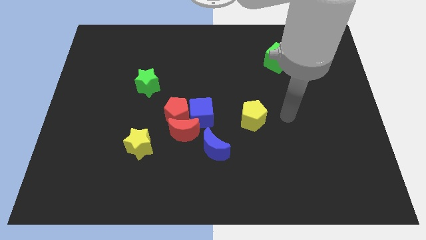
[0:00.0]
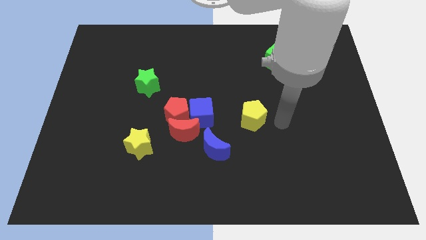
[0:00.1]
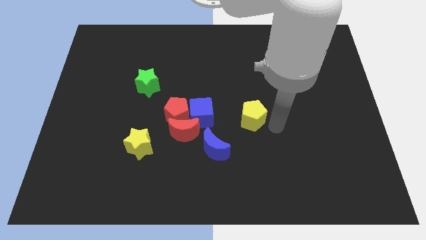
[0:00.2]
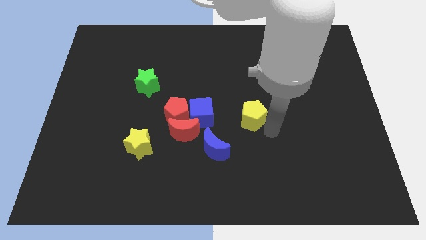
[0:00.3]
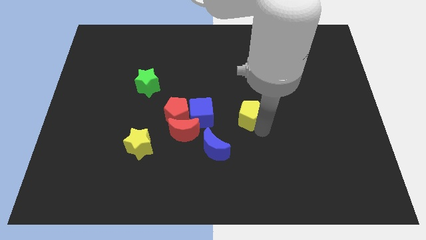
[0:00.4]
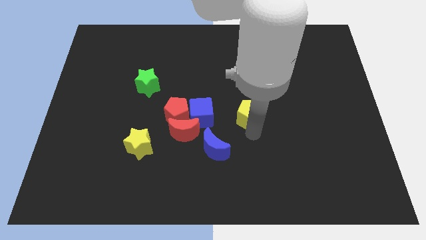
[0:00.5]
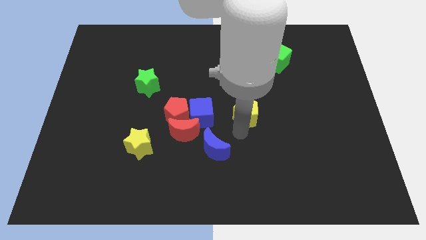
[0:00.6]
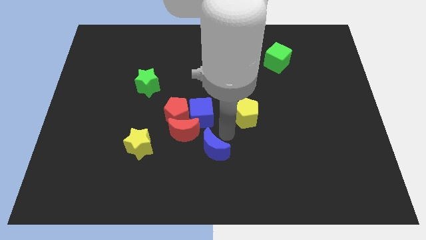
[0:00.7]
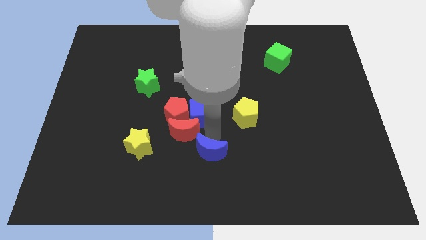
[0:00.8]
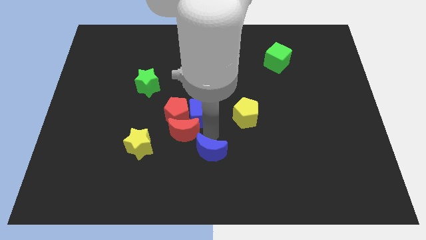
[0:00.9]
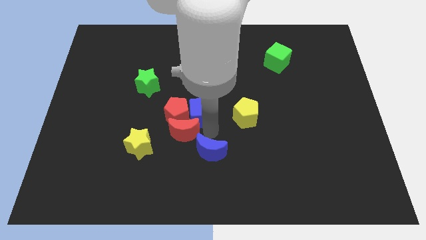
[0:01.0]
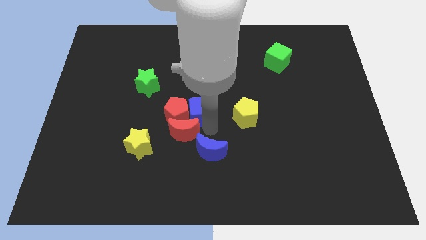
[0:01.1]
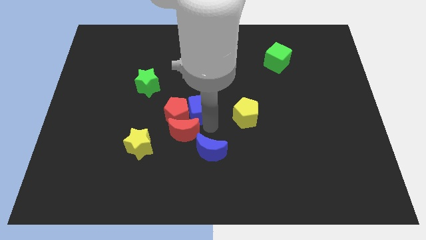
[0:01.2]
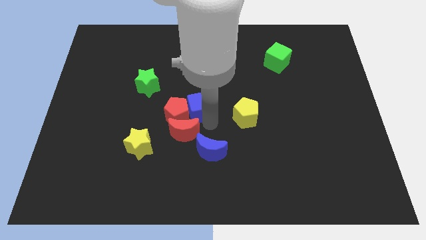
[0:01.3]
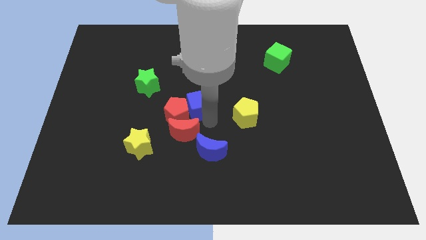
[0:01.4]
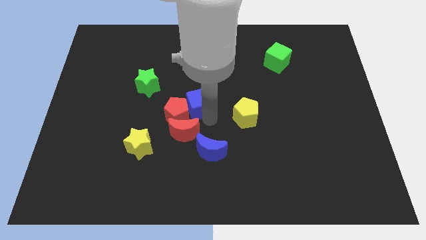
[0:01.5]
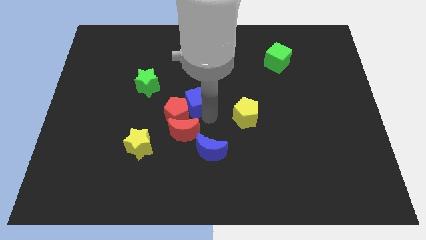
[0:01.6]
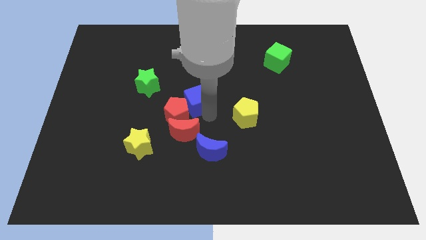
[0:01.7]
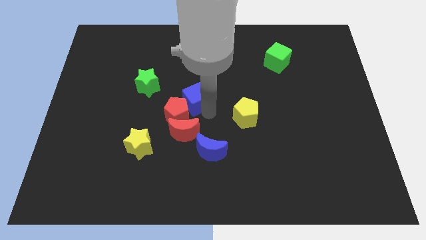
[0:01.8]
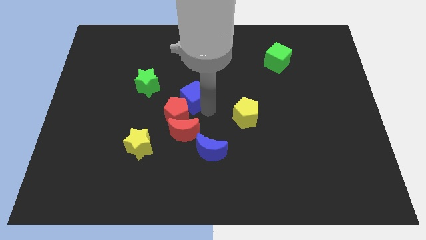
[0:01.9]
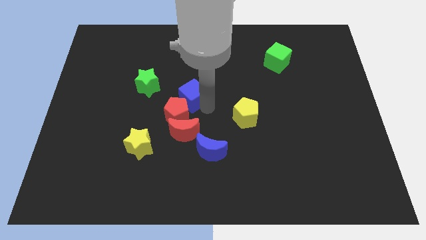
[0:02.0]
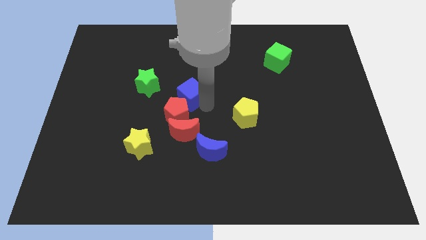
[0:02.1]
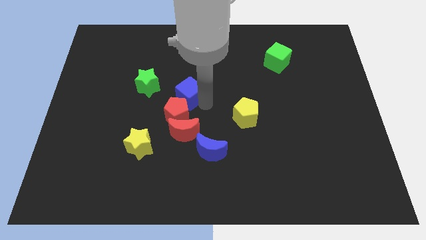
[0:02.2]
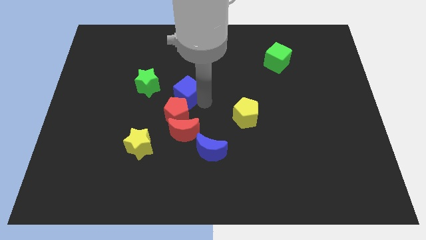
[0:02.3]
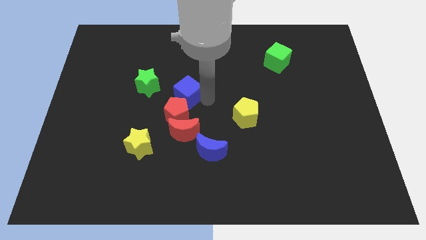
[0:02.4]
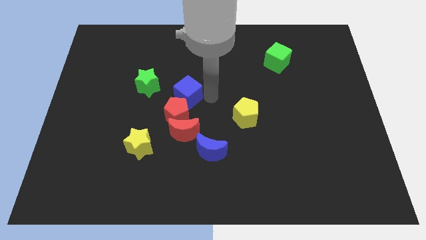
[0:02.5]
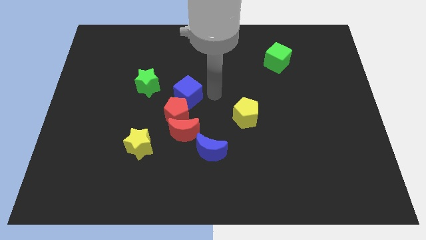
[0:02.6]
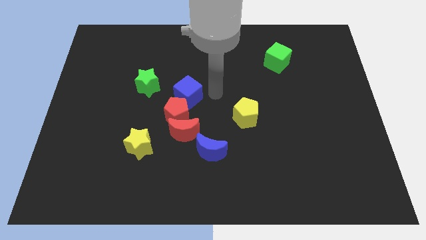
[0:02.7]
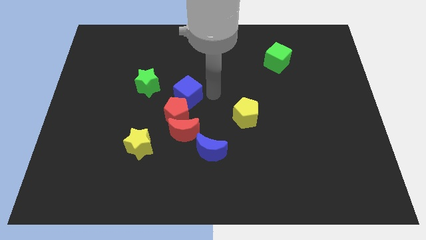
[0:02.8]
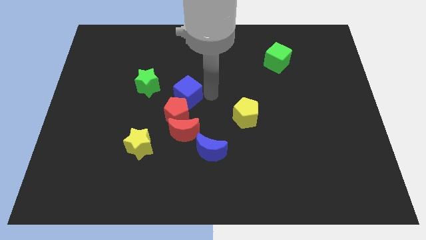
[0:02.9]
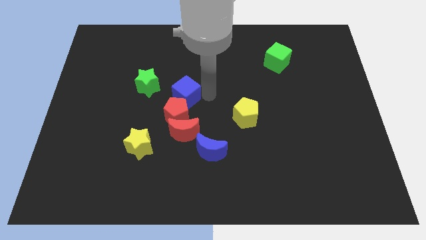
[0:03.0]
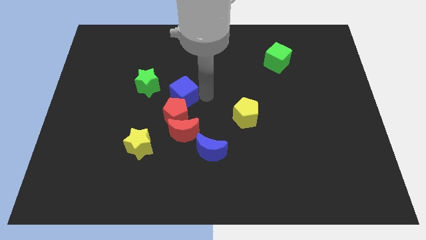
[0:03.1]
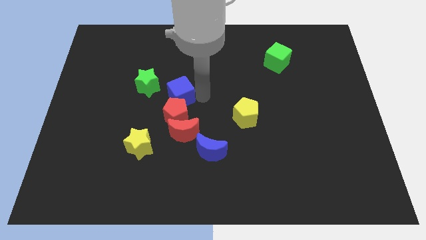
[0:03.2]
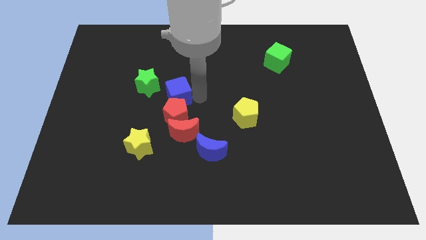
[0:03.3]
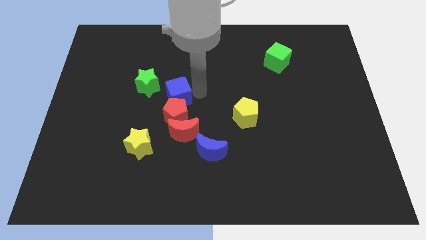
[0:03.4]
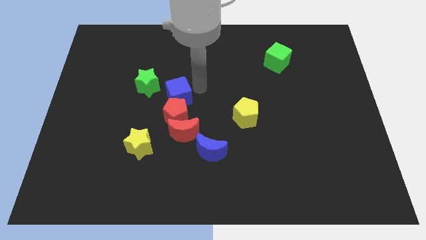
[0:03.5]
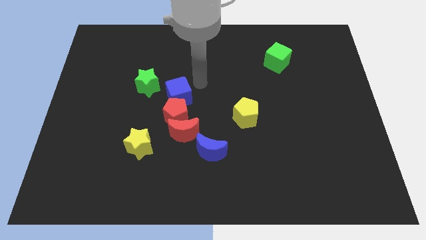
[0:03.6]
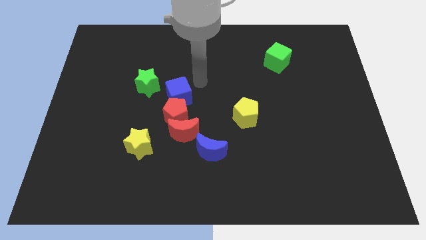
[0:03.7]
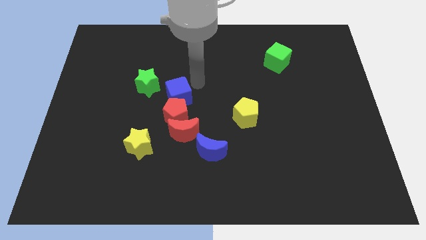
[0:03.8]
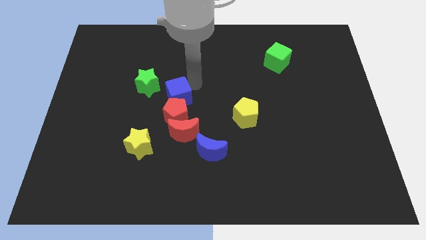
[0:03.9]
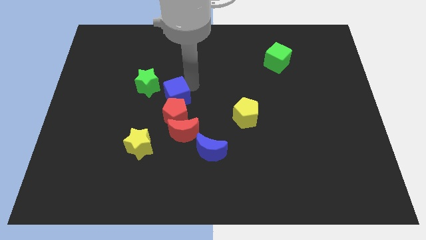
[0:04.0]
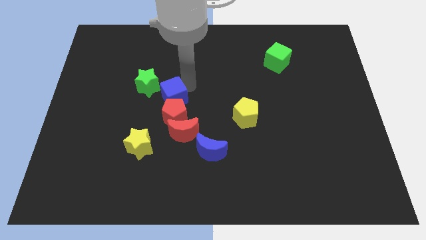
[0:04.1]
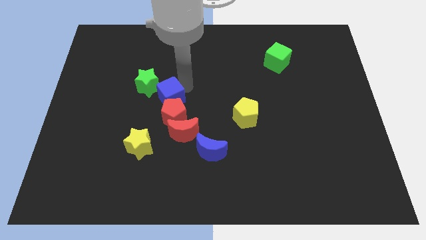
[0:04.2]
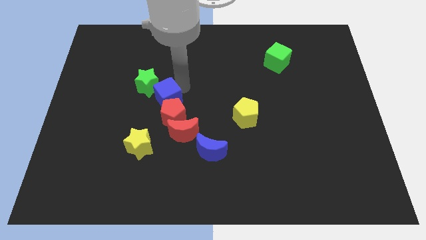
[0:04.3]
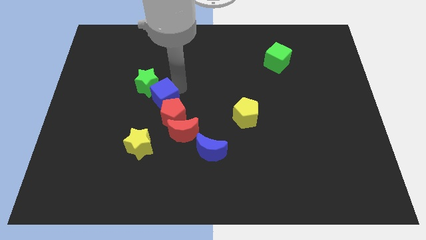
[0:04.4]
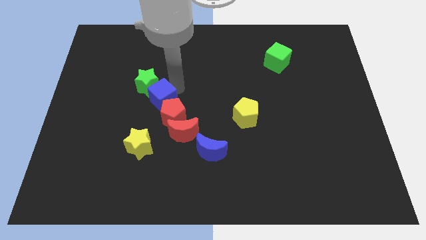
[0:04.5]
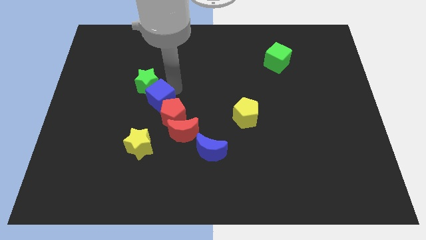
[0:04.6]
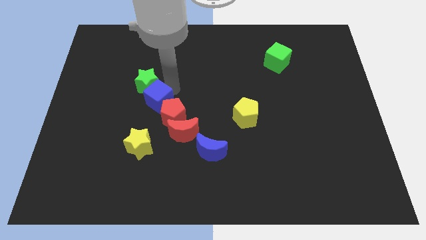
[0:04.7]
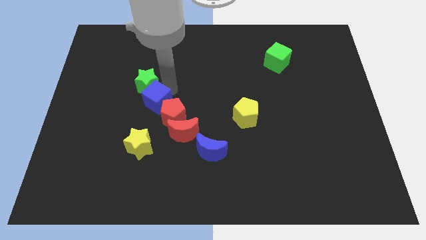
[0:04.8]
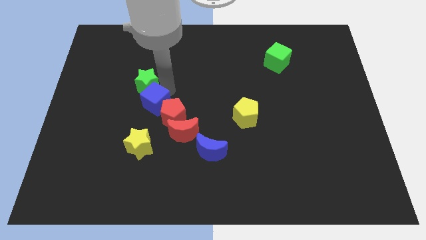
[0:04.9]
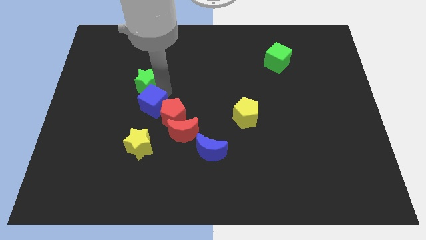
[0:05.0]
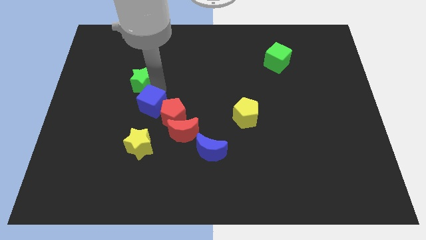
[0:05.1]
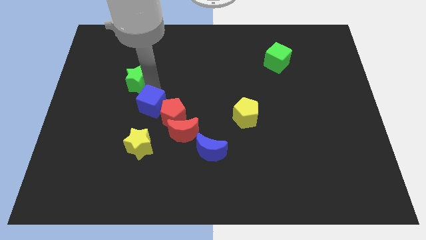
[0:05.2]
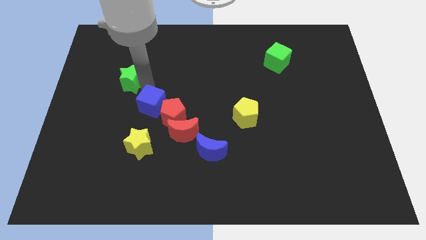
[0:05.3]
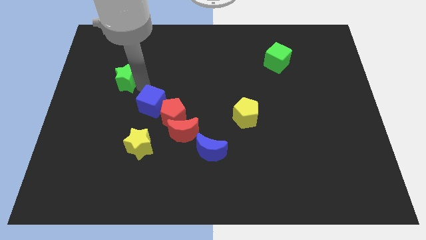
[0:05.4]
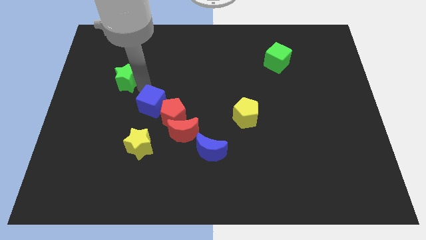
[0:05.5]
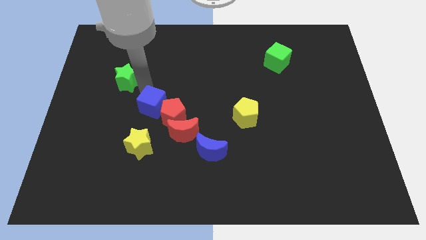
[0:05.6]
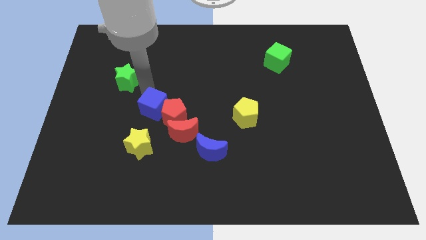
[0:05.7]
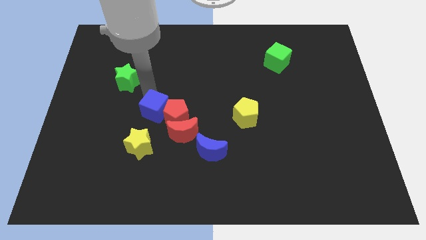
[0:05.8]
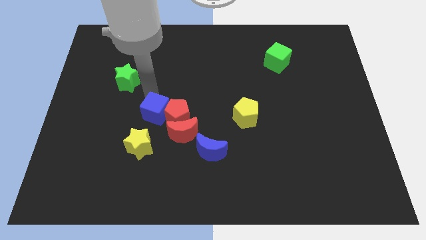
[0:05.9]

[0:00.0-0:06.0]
slide the blue cube diagonally up and to the right of the yellow star

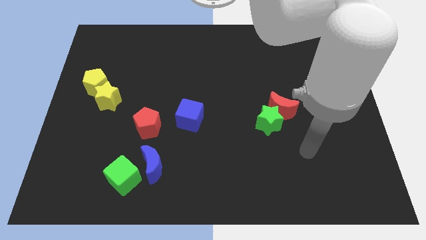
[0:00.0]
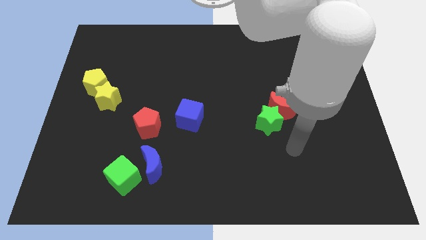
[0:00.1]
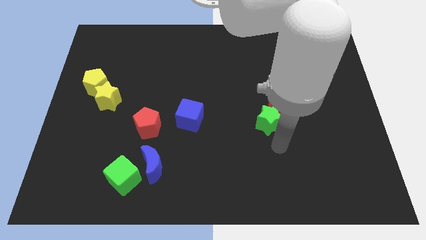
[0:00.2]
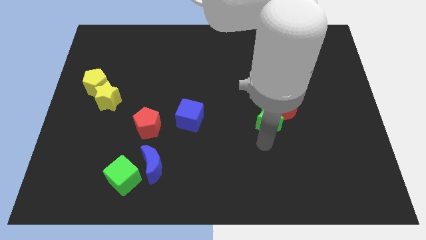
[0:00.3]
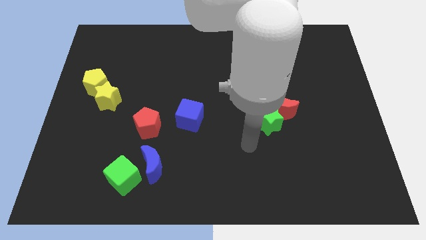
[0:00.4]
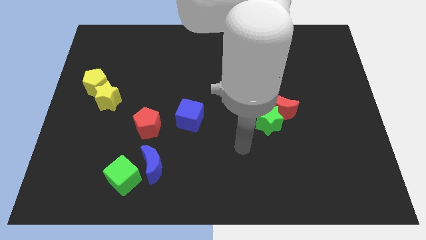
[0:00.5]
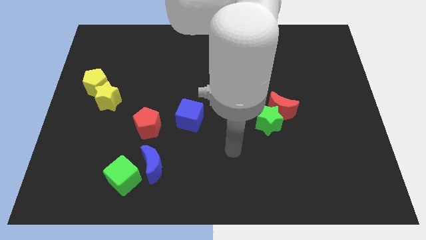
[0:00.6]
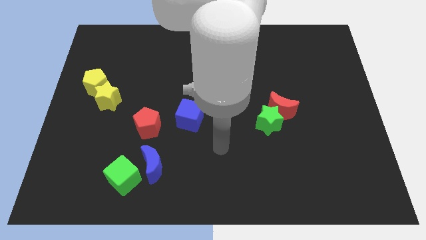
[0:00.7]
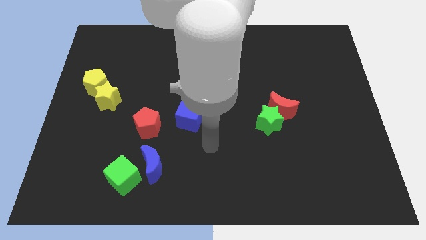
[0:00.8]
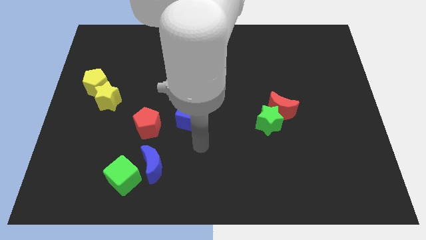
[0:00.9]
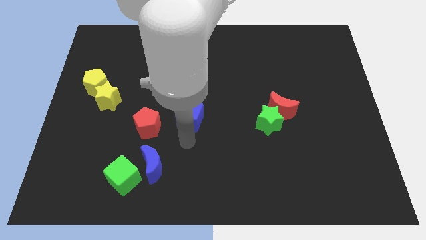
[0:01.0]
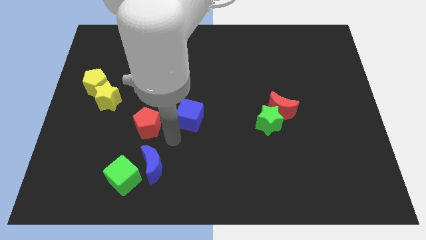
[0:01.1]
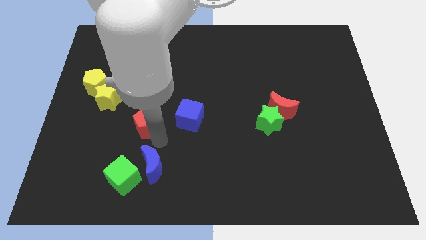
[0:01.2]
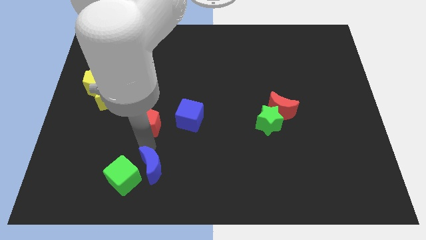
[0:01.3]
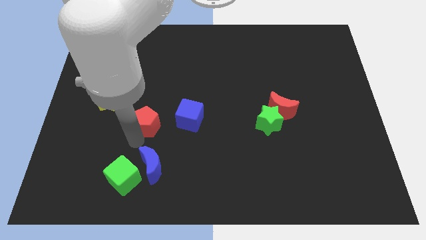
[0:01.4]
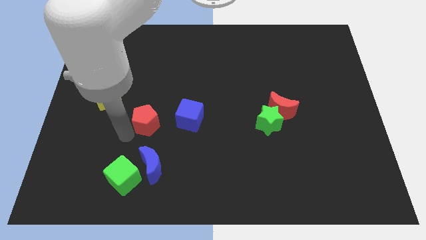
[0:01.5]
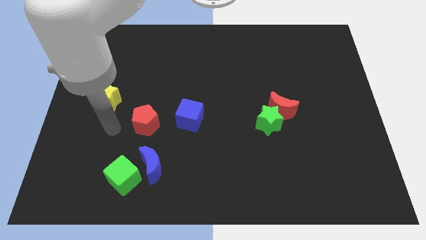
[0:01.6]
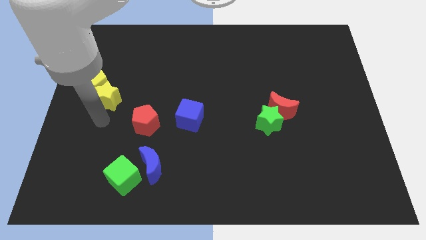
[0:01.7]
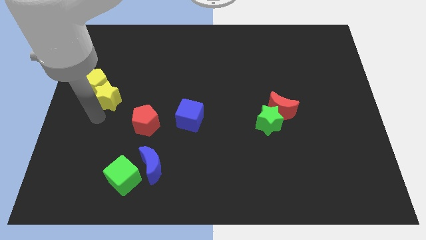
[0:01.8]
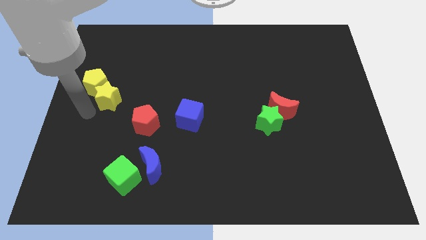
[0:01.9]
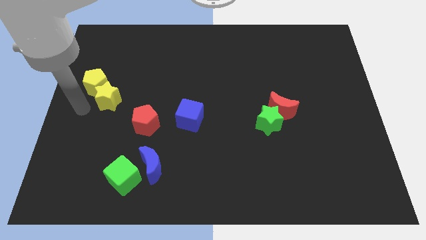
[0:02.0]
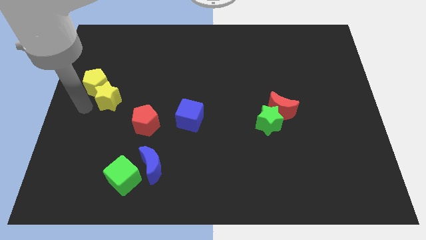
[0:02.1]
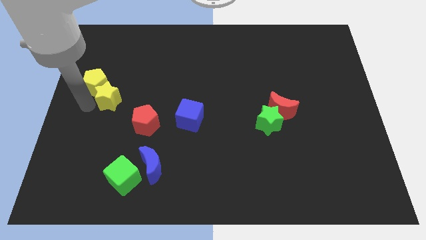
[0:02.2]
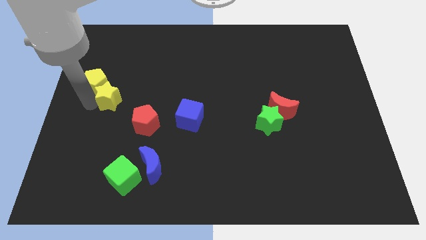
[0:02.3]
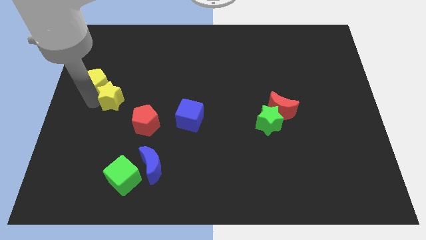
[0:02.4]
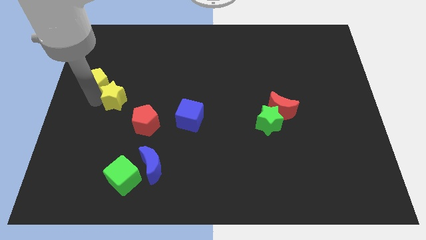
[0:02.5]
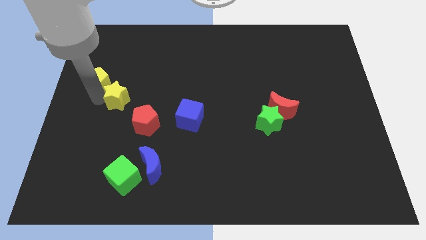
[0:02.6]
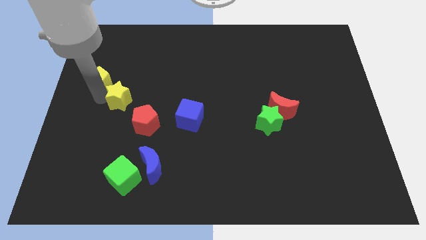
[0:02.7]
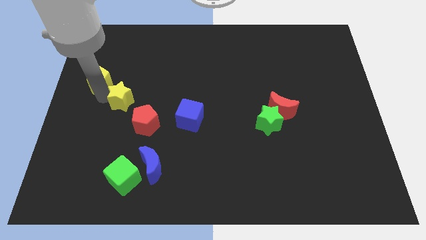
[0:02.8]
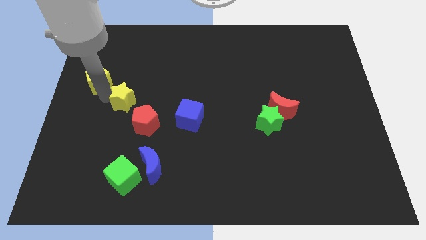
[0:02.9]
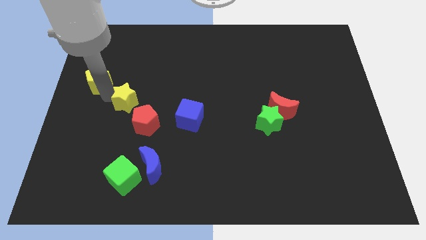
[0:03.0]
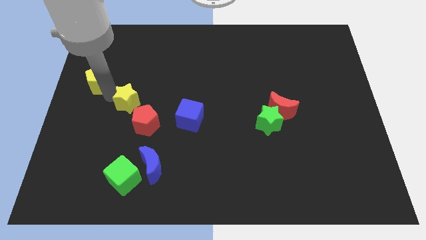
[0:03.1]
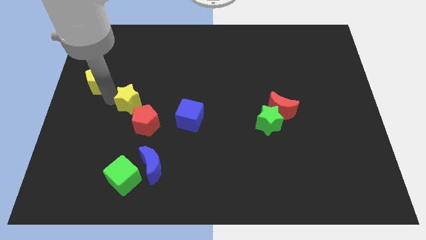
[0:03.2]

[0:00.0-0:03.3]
slide the yellow star above the red pentagon
